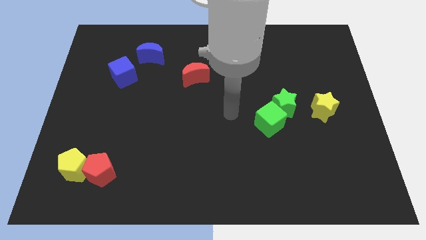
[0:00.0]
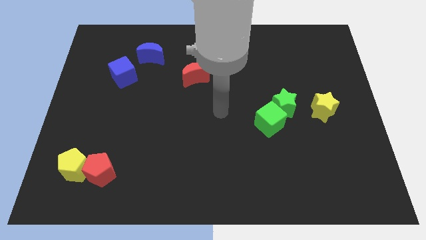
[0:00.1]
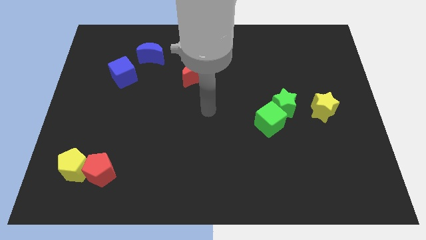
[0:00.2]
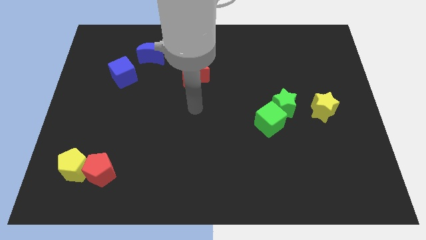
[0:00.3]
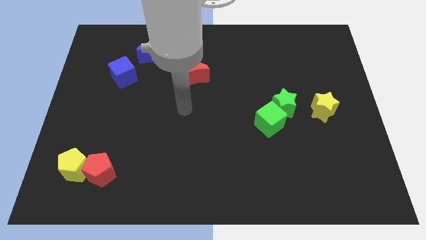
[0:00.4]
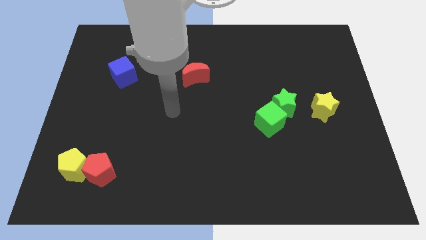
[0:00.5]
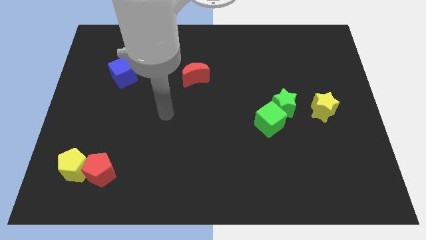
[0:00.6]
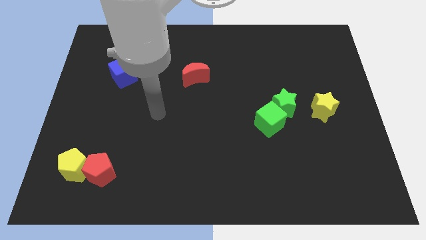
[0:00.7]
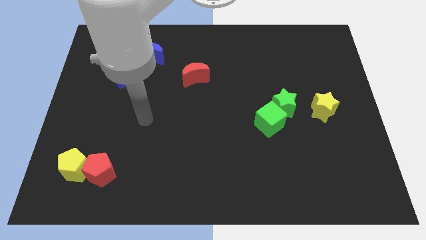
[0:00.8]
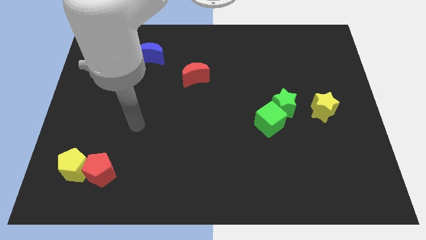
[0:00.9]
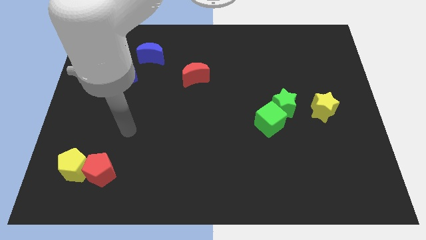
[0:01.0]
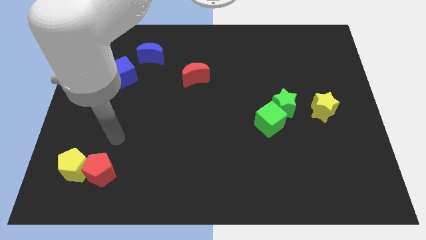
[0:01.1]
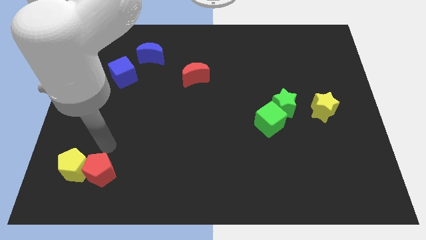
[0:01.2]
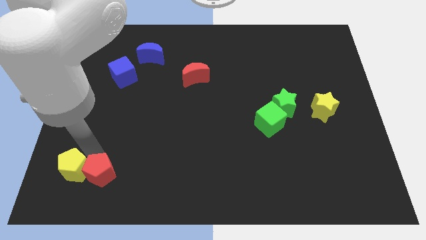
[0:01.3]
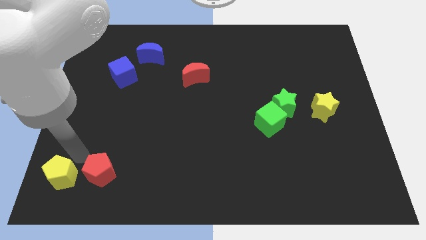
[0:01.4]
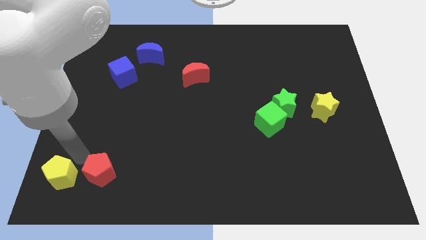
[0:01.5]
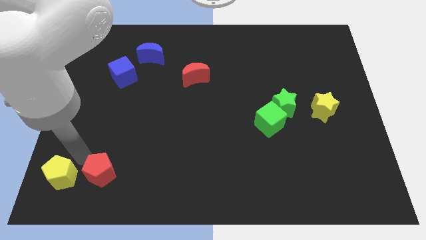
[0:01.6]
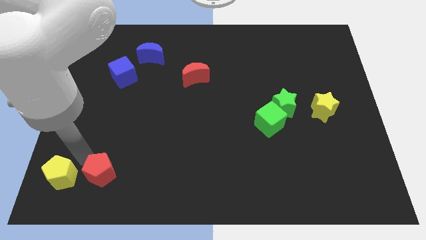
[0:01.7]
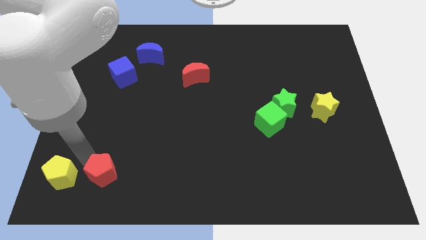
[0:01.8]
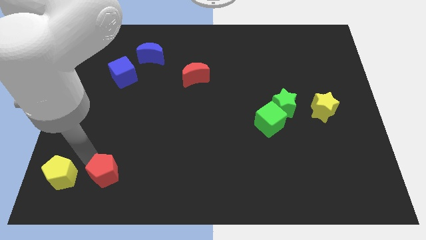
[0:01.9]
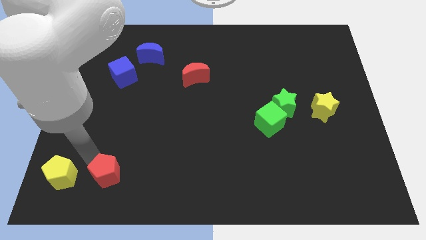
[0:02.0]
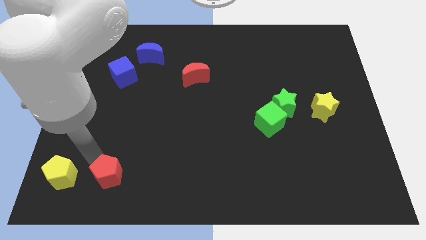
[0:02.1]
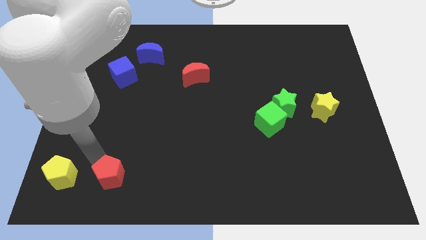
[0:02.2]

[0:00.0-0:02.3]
move the red pentagon away from the yellow pentagon

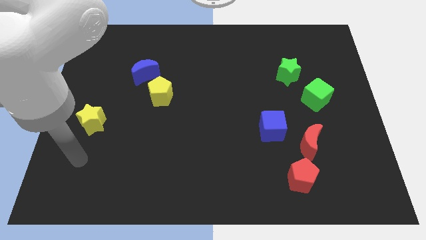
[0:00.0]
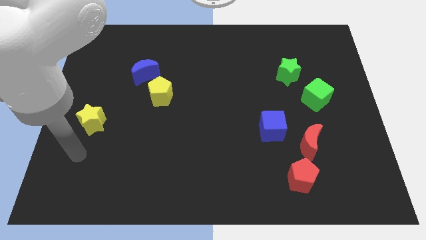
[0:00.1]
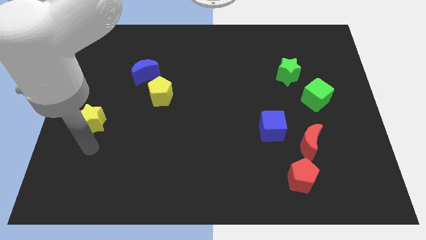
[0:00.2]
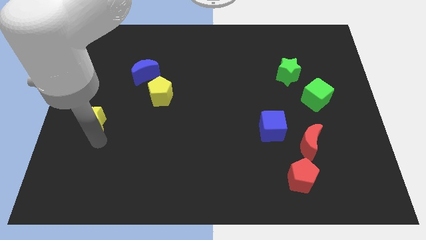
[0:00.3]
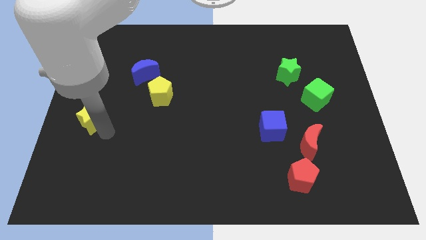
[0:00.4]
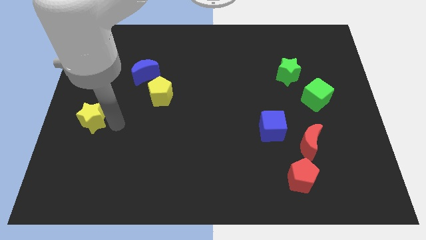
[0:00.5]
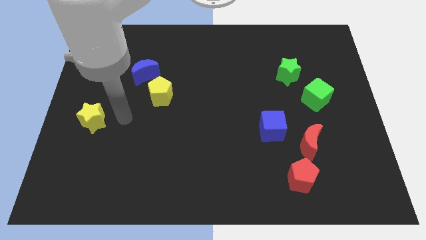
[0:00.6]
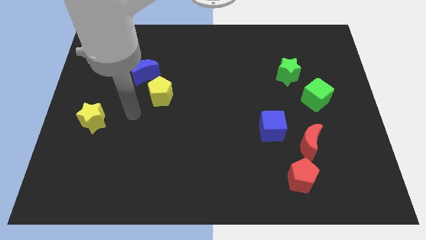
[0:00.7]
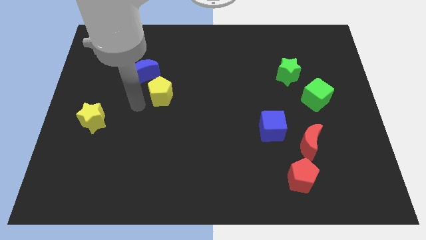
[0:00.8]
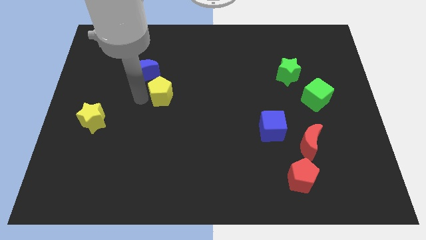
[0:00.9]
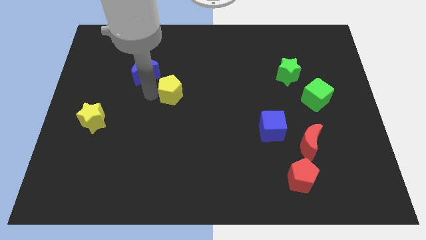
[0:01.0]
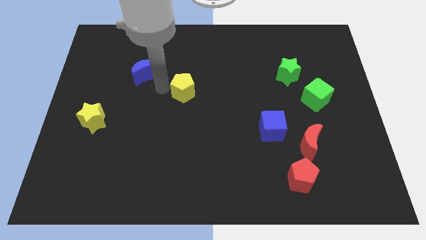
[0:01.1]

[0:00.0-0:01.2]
pull the blue moon apart from the yellow pentagon

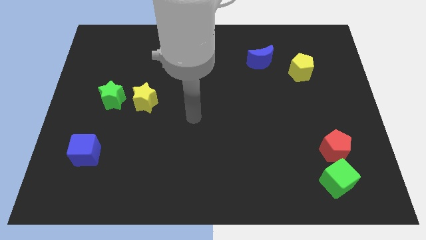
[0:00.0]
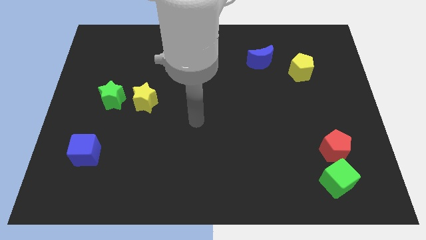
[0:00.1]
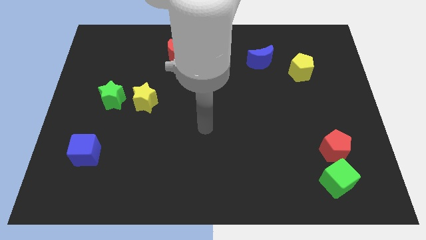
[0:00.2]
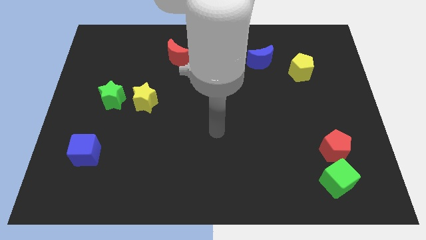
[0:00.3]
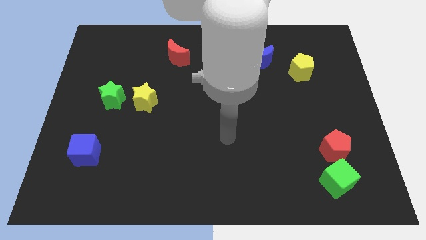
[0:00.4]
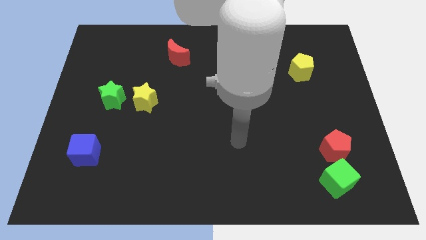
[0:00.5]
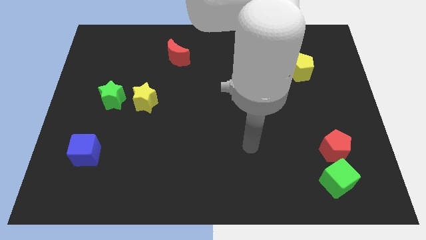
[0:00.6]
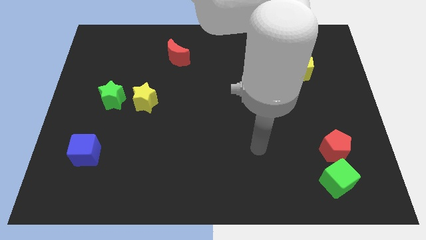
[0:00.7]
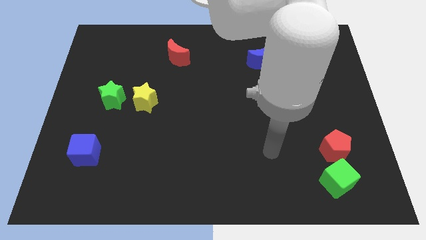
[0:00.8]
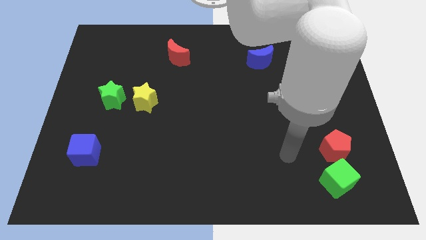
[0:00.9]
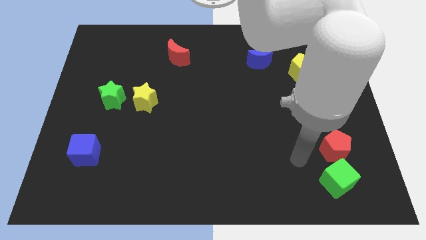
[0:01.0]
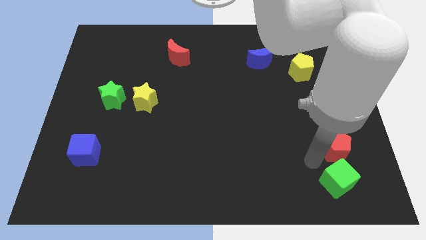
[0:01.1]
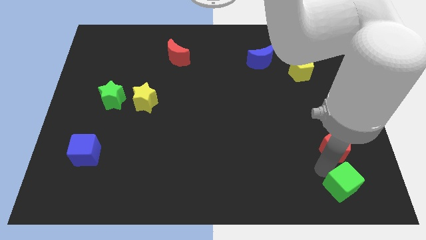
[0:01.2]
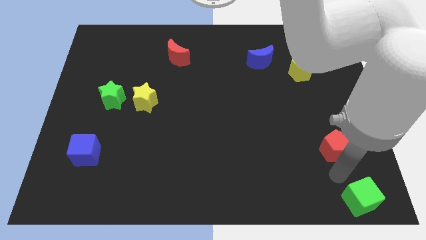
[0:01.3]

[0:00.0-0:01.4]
move the red pentagon away from the green cube

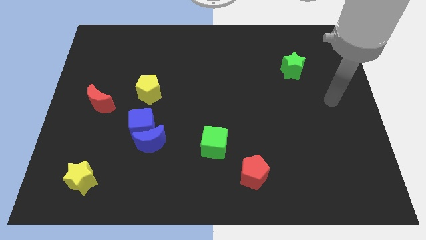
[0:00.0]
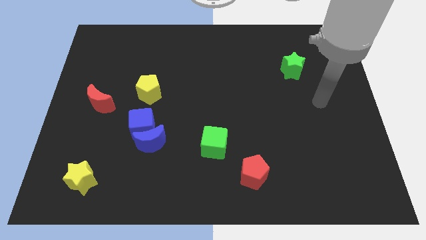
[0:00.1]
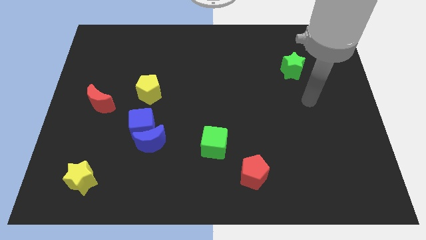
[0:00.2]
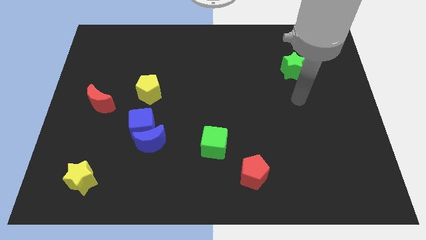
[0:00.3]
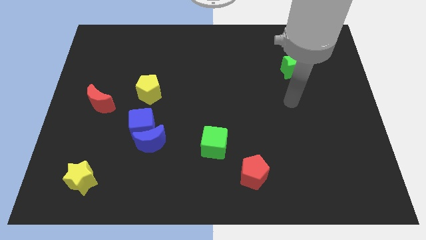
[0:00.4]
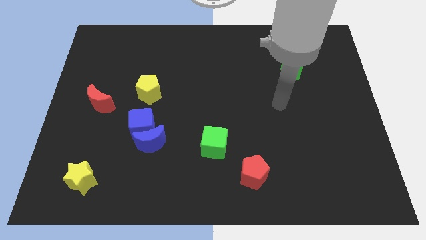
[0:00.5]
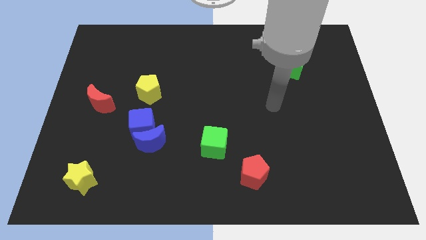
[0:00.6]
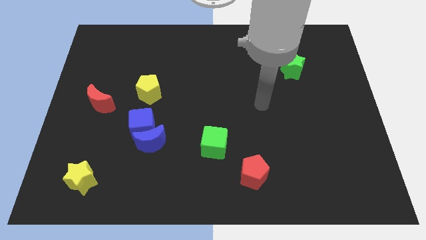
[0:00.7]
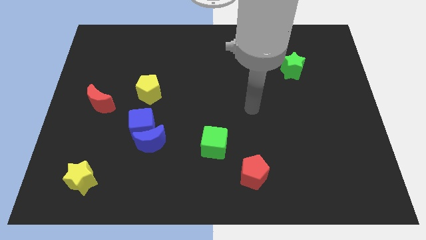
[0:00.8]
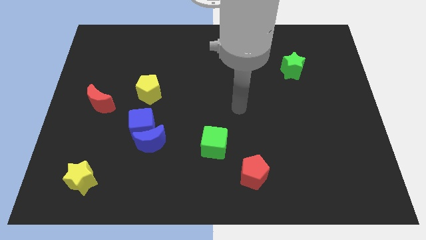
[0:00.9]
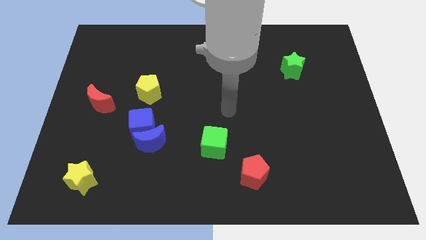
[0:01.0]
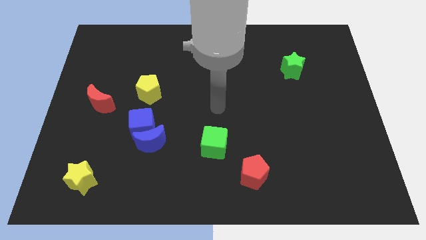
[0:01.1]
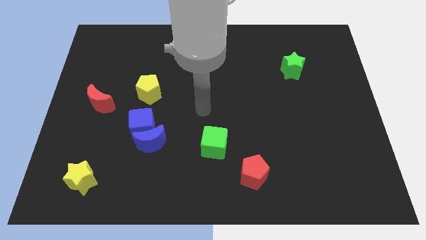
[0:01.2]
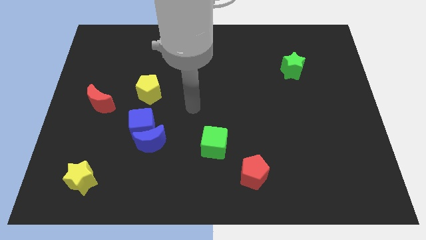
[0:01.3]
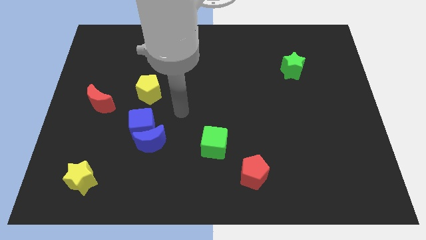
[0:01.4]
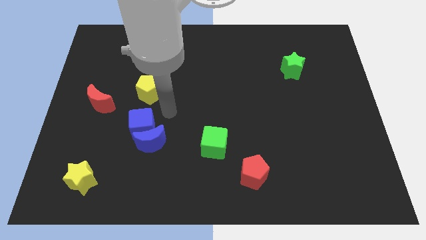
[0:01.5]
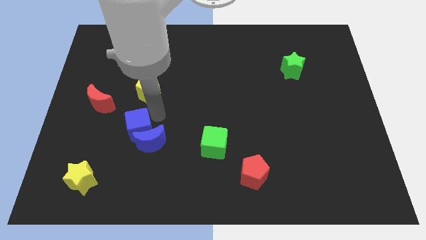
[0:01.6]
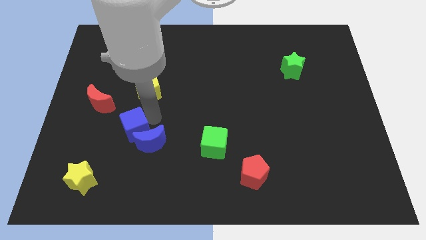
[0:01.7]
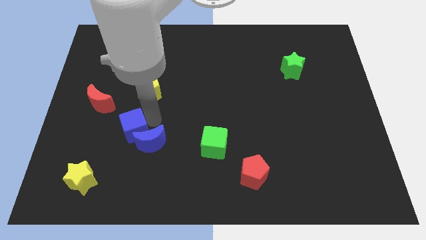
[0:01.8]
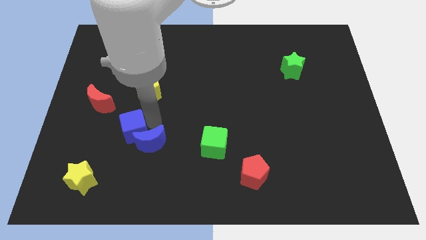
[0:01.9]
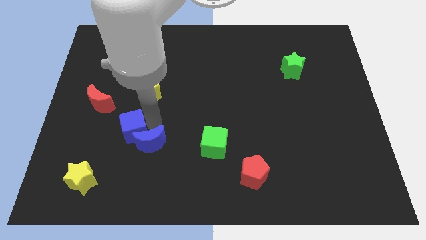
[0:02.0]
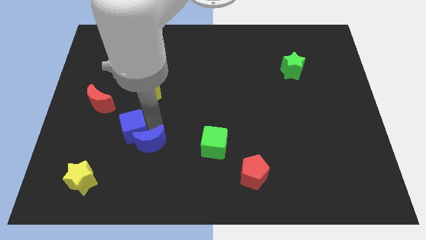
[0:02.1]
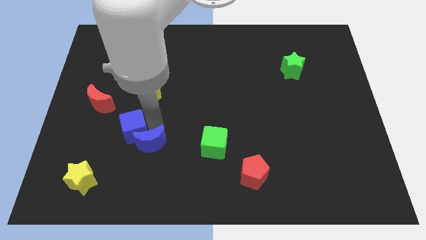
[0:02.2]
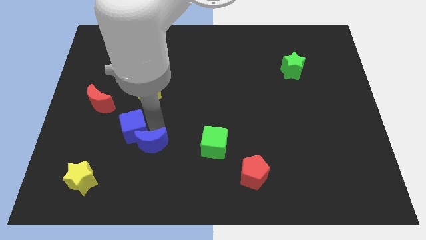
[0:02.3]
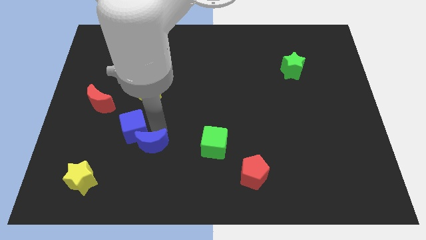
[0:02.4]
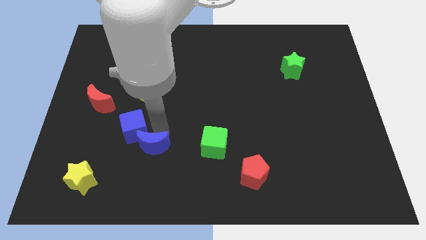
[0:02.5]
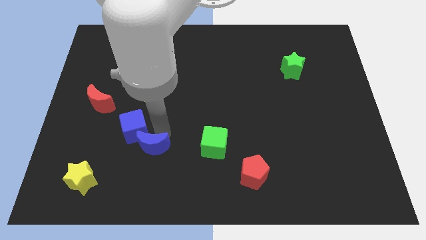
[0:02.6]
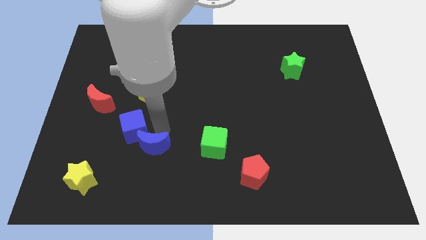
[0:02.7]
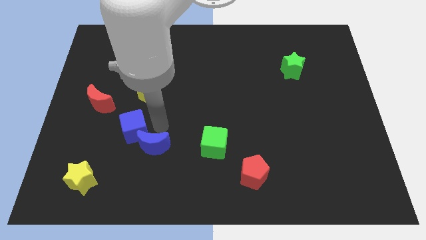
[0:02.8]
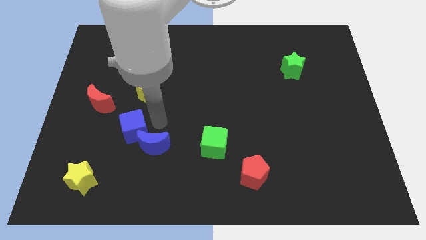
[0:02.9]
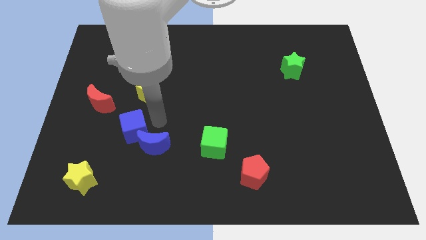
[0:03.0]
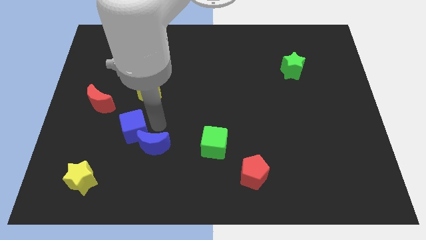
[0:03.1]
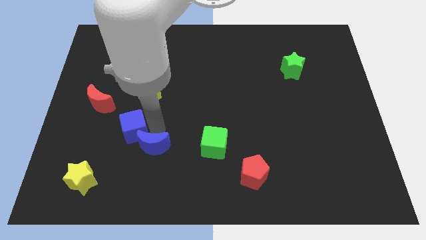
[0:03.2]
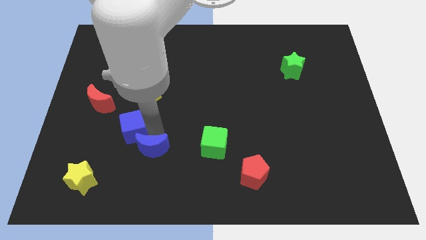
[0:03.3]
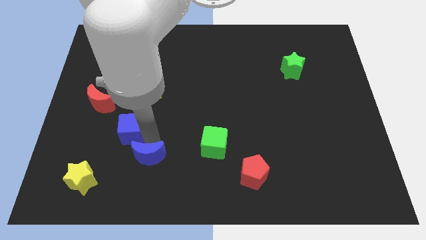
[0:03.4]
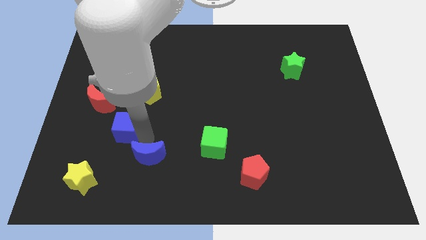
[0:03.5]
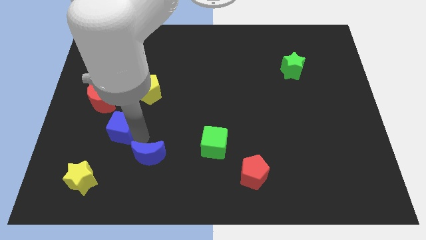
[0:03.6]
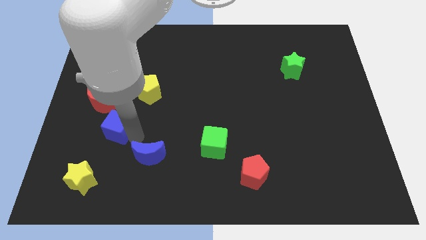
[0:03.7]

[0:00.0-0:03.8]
move the blue moon away from the blue cube

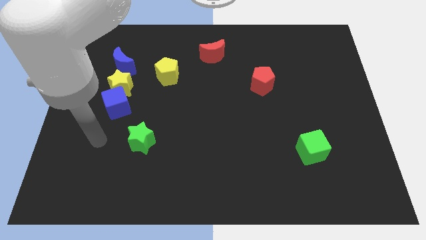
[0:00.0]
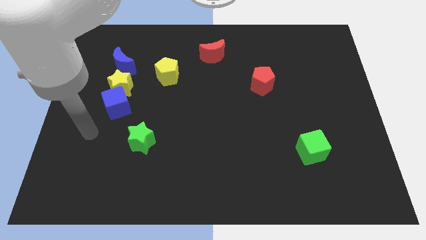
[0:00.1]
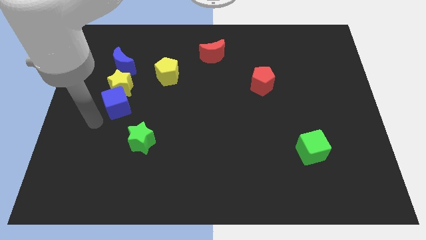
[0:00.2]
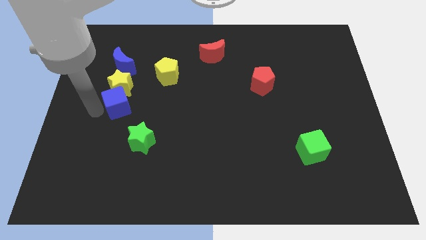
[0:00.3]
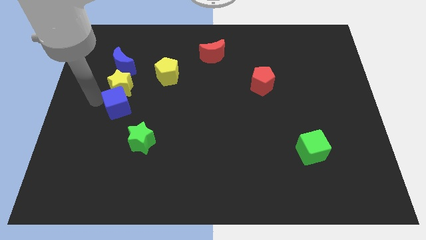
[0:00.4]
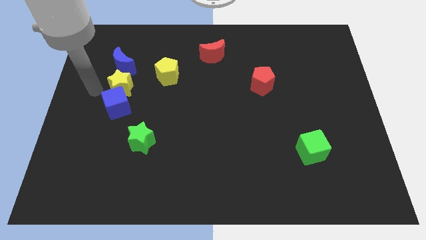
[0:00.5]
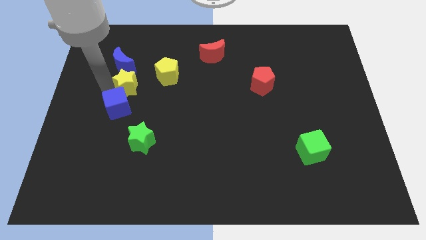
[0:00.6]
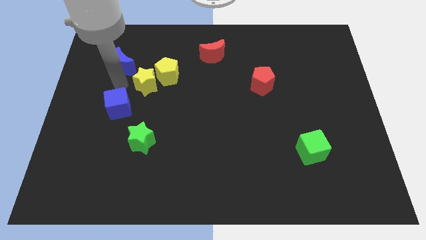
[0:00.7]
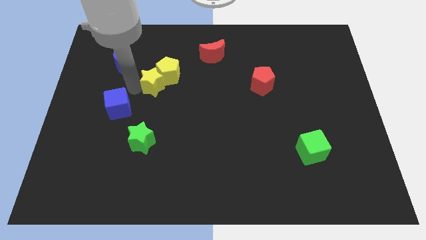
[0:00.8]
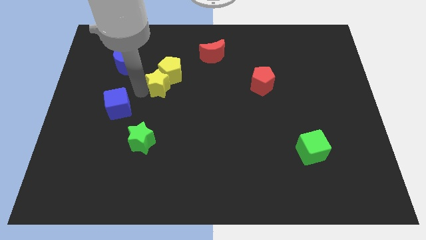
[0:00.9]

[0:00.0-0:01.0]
move the blue cube away from the yellow star
